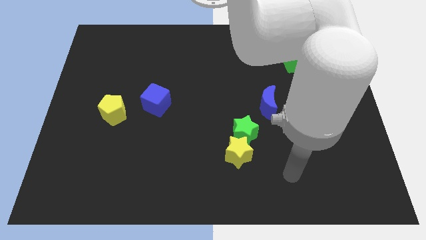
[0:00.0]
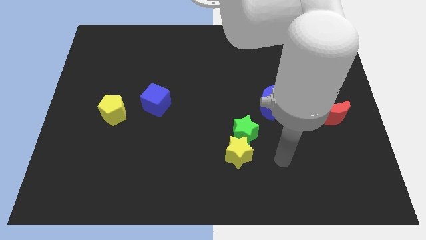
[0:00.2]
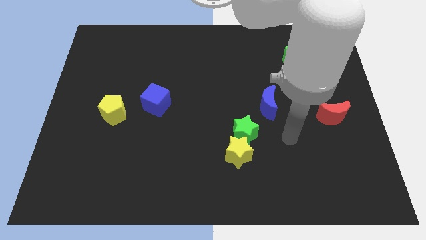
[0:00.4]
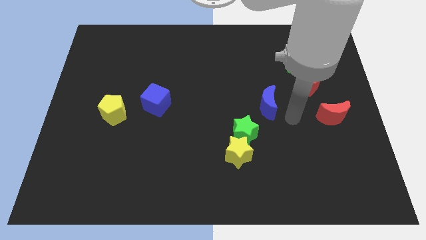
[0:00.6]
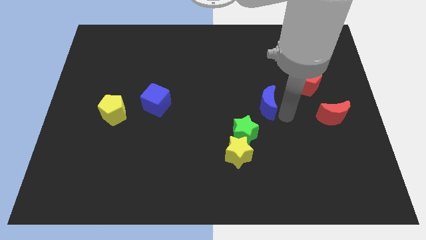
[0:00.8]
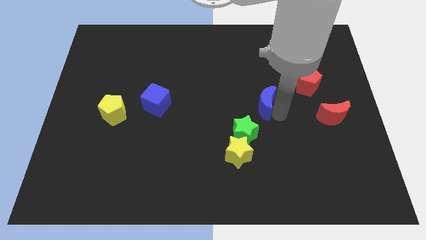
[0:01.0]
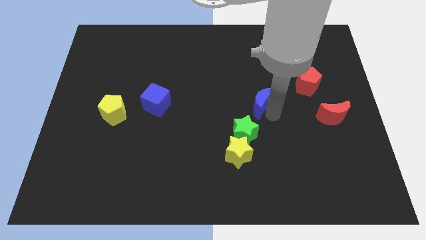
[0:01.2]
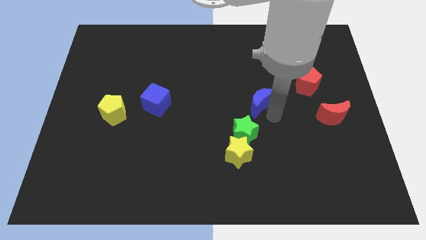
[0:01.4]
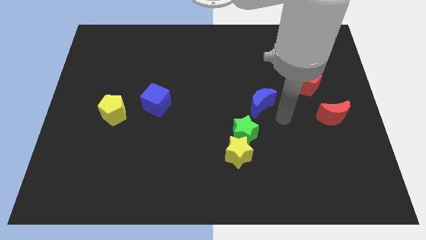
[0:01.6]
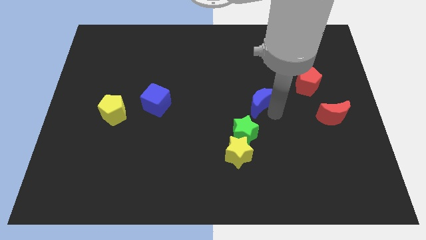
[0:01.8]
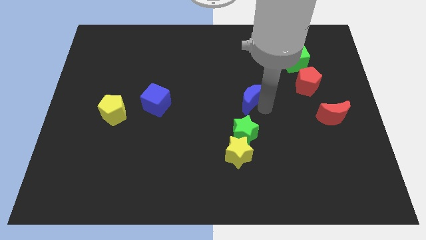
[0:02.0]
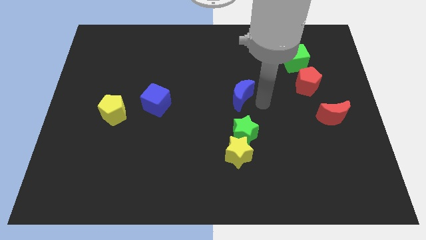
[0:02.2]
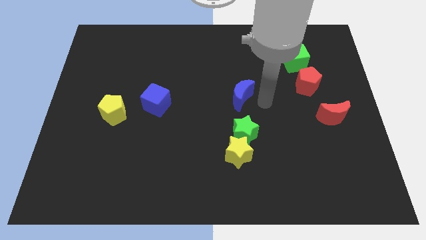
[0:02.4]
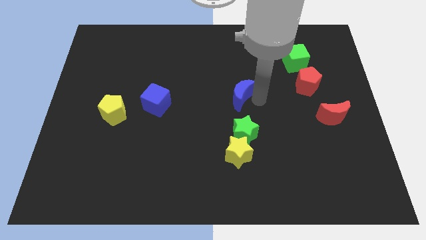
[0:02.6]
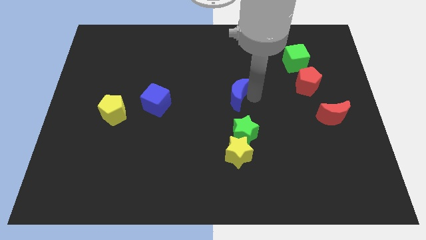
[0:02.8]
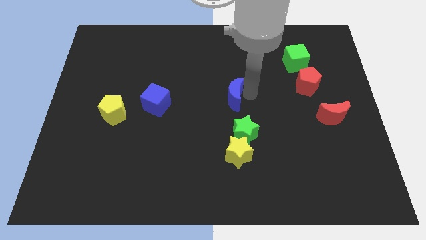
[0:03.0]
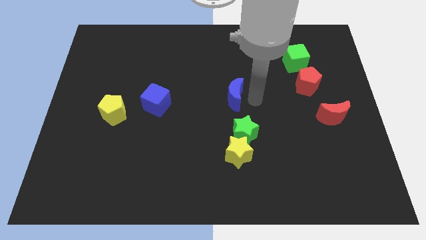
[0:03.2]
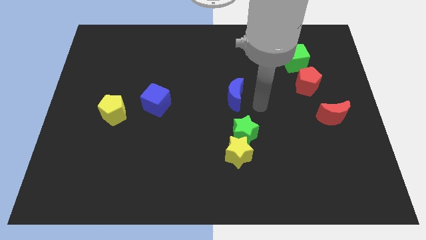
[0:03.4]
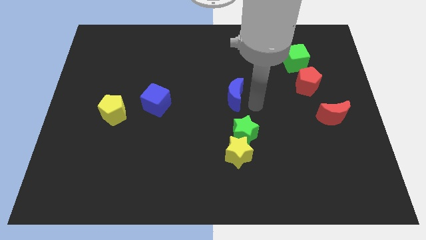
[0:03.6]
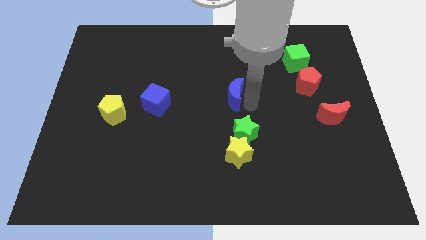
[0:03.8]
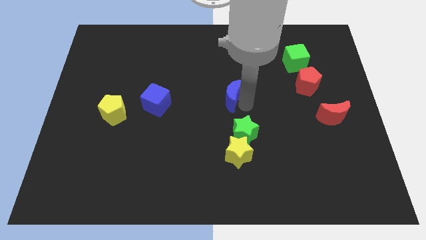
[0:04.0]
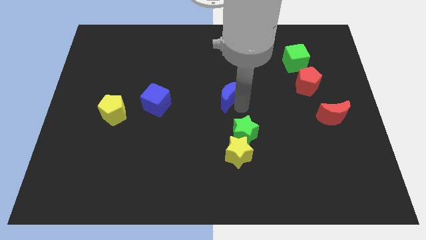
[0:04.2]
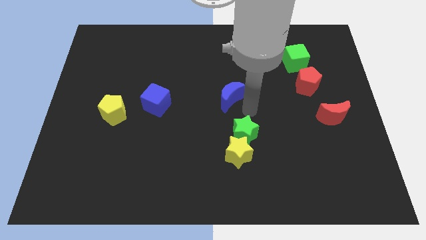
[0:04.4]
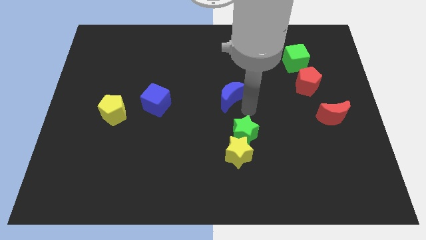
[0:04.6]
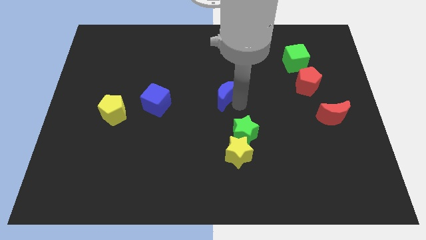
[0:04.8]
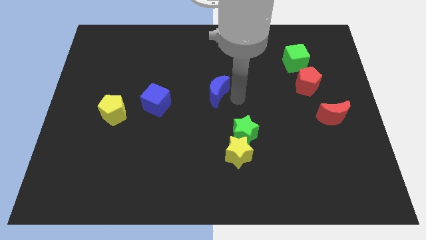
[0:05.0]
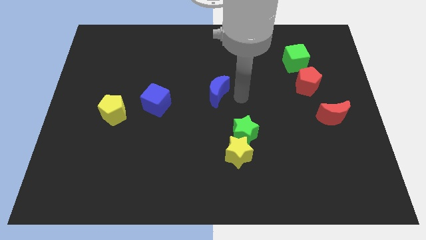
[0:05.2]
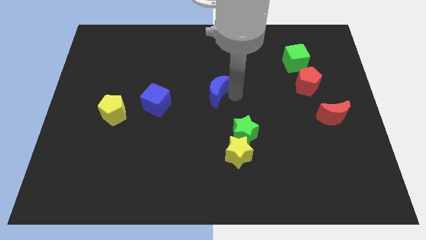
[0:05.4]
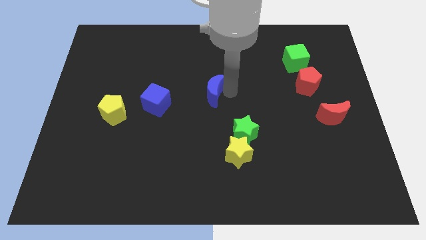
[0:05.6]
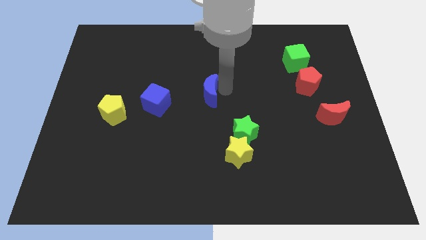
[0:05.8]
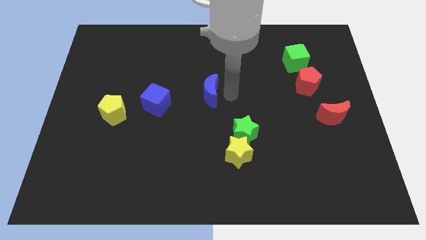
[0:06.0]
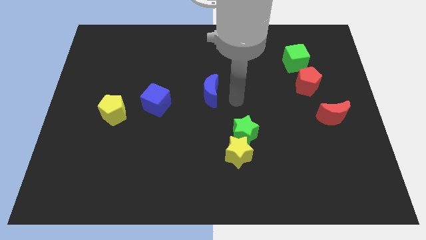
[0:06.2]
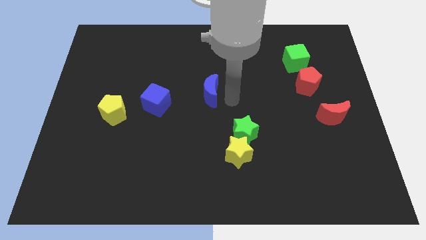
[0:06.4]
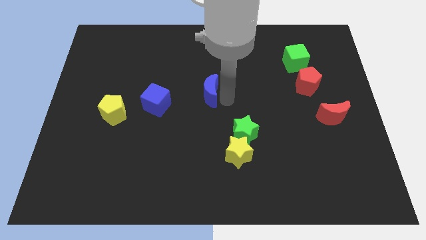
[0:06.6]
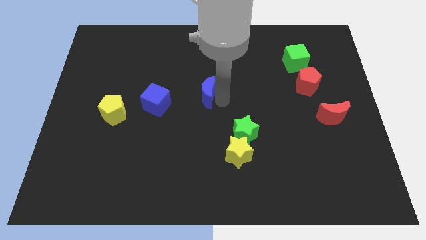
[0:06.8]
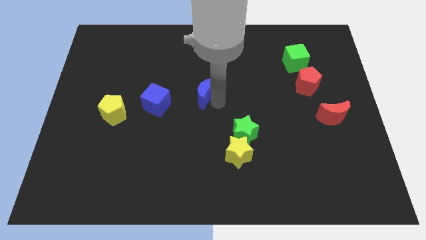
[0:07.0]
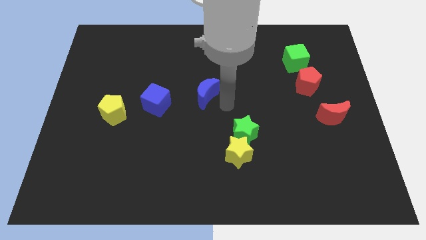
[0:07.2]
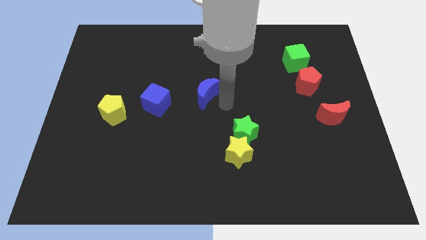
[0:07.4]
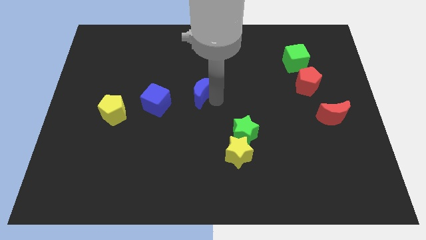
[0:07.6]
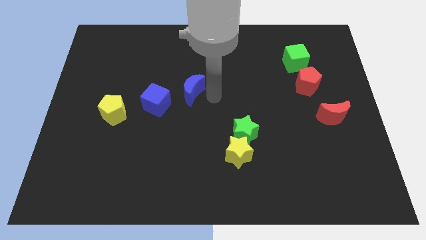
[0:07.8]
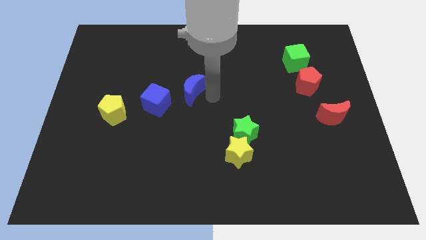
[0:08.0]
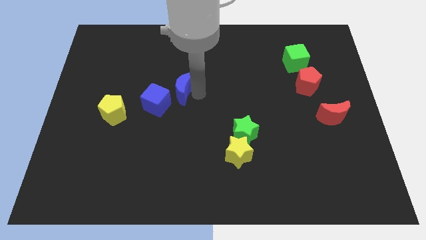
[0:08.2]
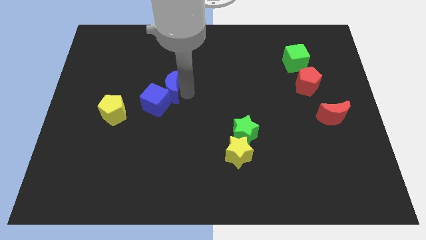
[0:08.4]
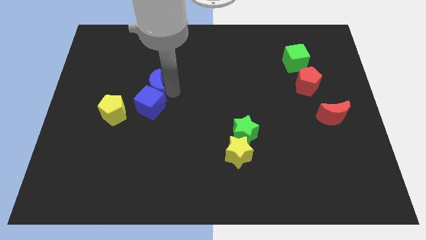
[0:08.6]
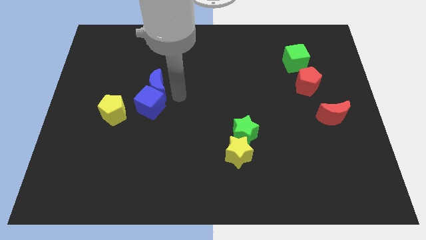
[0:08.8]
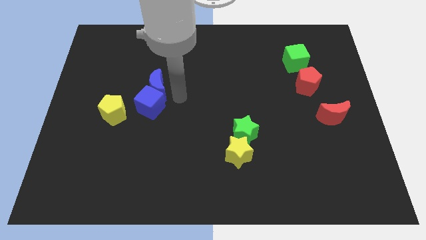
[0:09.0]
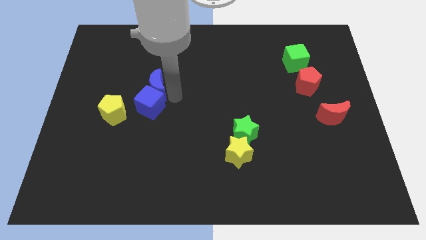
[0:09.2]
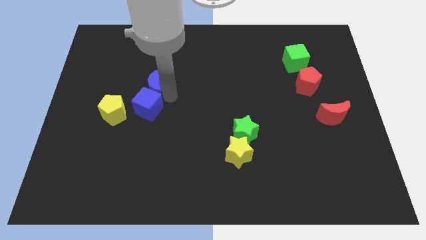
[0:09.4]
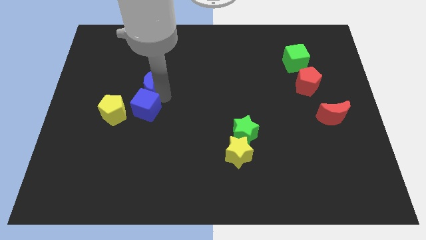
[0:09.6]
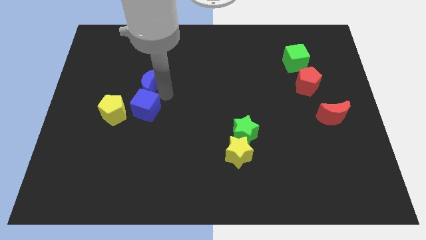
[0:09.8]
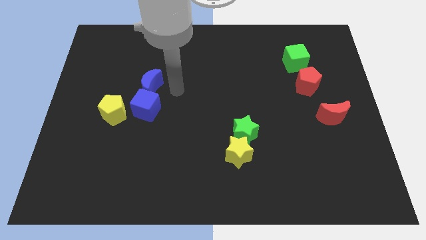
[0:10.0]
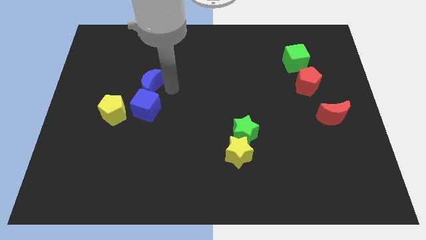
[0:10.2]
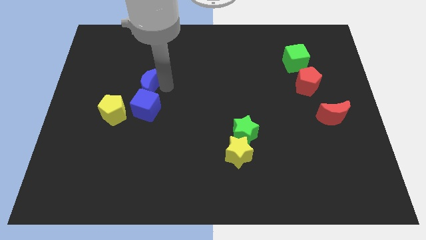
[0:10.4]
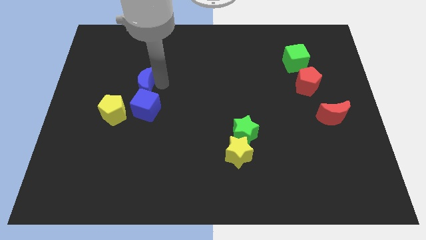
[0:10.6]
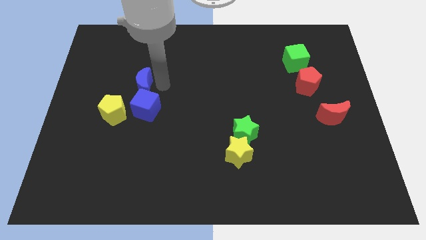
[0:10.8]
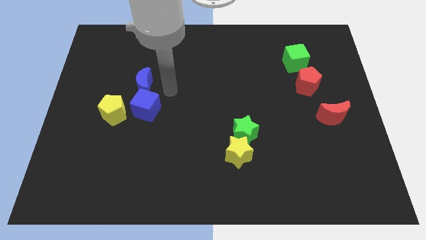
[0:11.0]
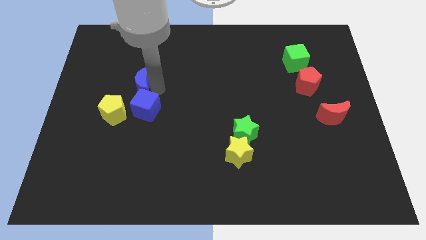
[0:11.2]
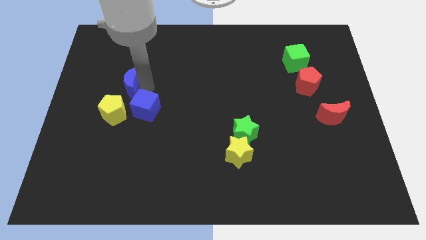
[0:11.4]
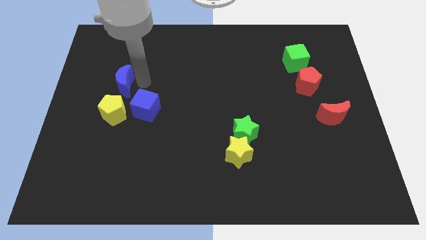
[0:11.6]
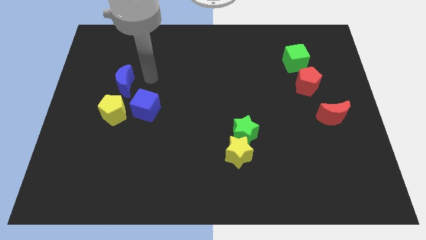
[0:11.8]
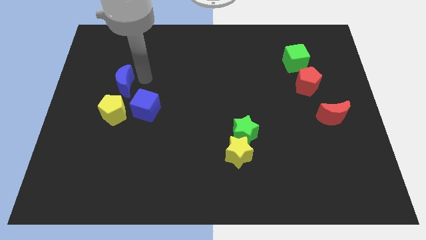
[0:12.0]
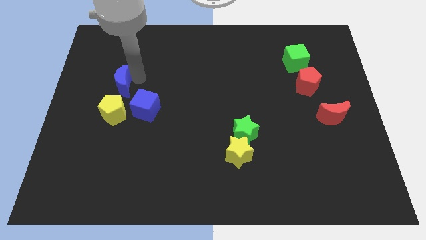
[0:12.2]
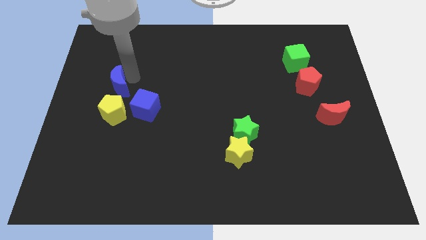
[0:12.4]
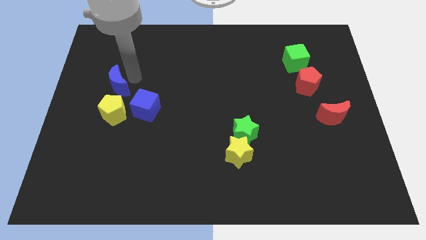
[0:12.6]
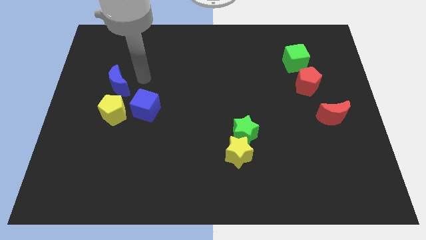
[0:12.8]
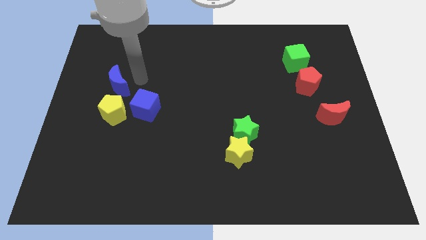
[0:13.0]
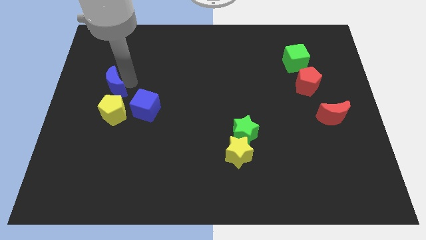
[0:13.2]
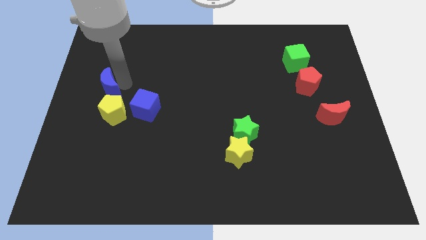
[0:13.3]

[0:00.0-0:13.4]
put the blue moon to the center left

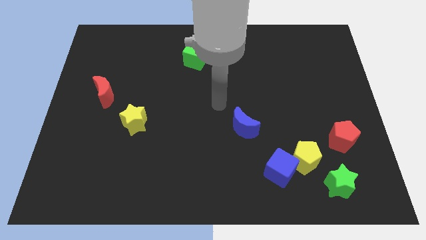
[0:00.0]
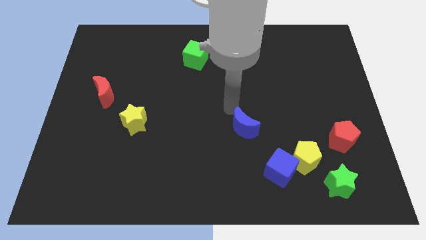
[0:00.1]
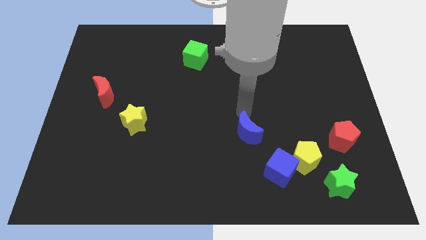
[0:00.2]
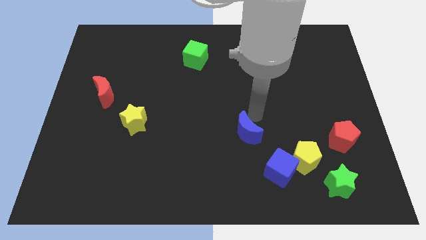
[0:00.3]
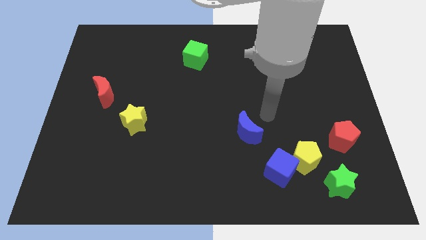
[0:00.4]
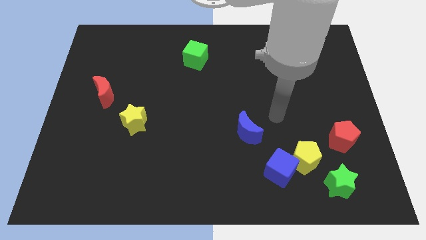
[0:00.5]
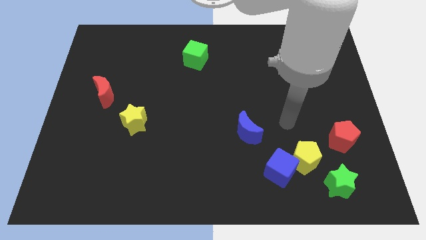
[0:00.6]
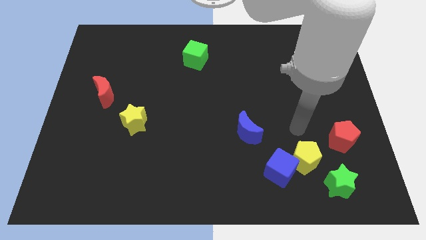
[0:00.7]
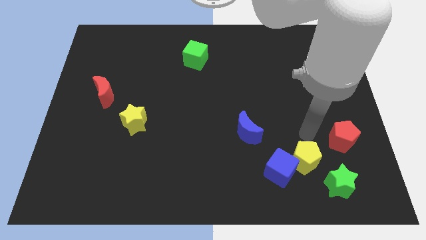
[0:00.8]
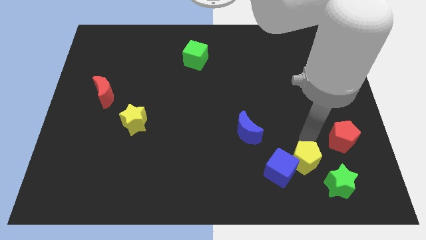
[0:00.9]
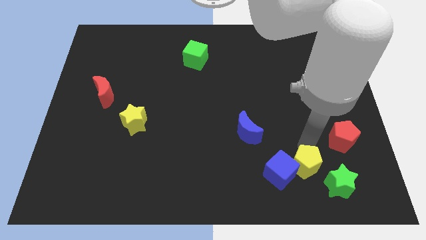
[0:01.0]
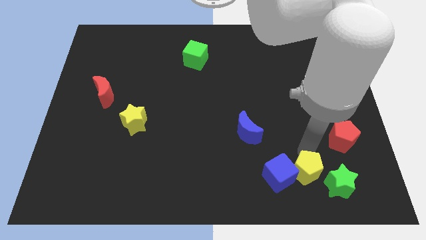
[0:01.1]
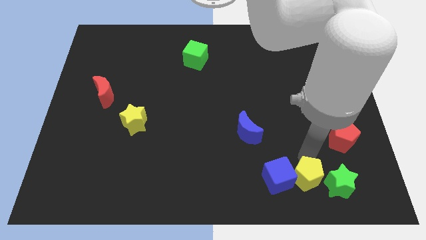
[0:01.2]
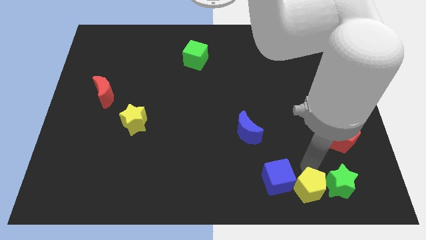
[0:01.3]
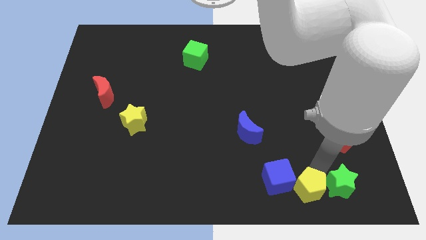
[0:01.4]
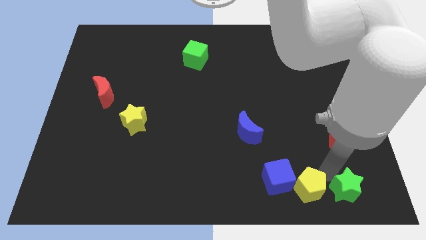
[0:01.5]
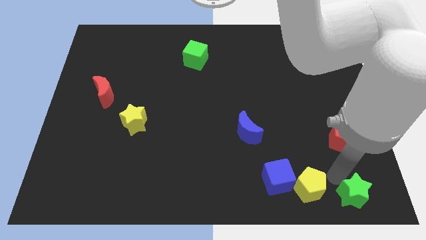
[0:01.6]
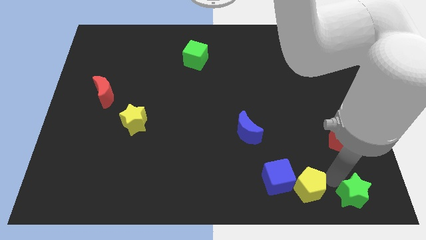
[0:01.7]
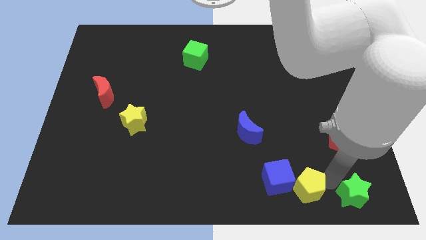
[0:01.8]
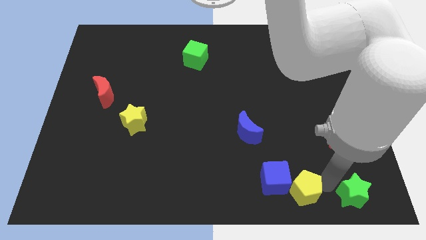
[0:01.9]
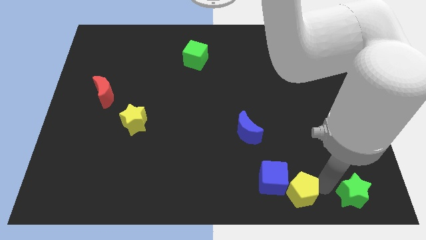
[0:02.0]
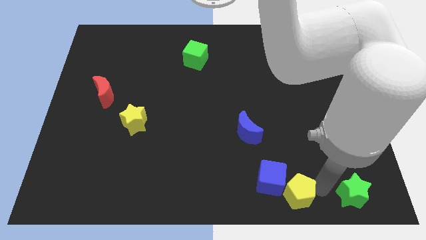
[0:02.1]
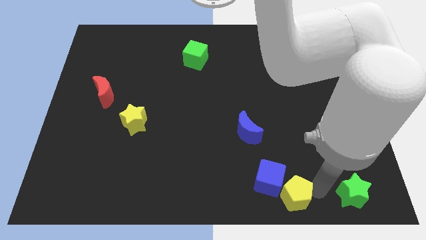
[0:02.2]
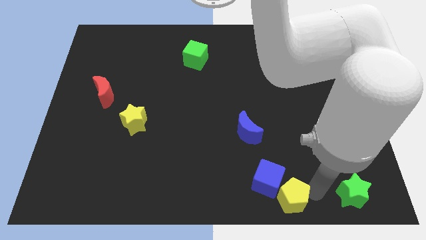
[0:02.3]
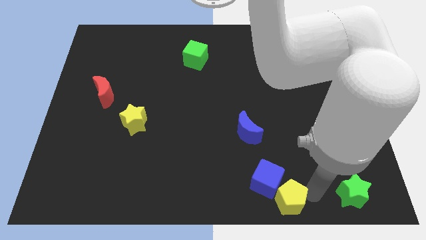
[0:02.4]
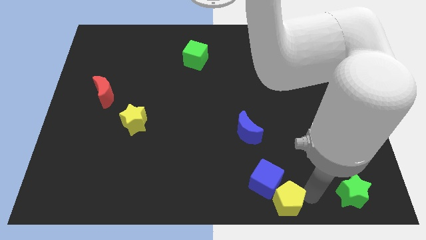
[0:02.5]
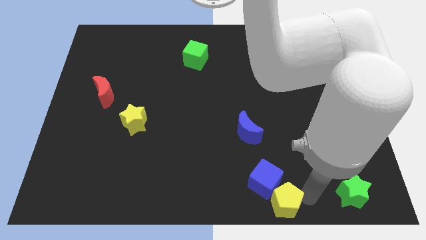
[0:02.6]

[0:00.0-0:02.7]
move the yellow pentagon to the bottom
